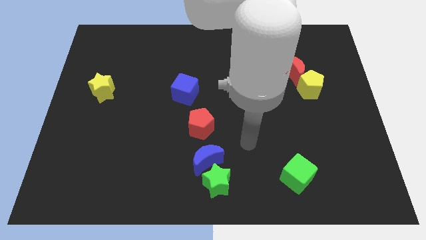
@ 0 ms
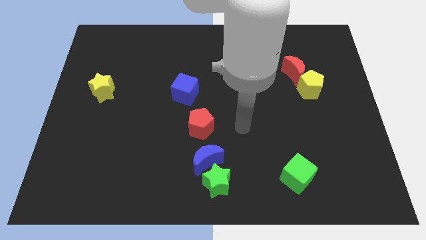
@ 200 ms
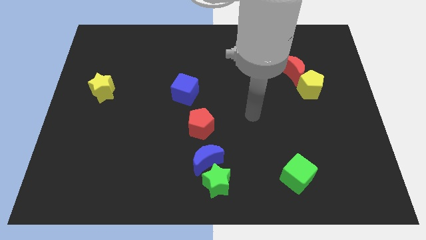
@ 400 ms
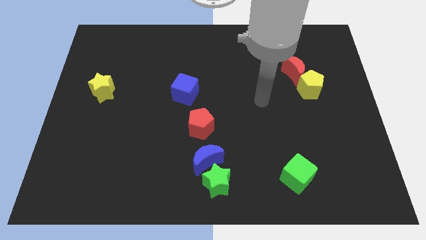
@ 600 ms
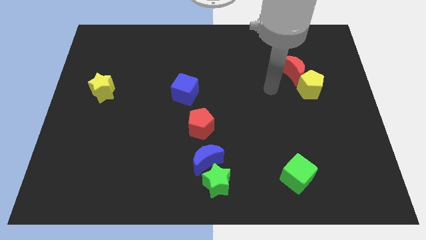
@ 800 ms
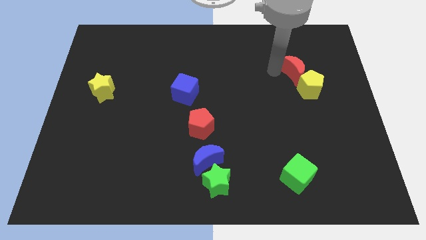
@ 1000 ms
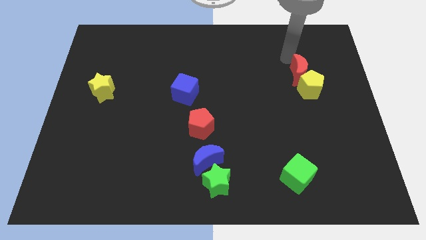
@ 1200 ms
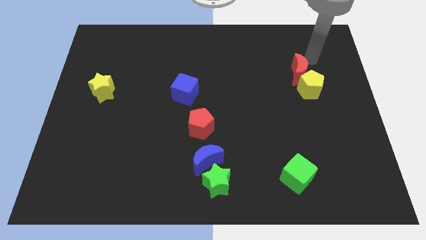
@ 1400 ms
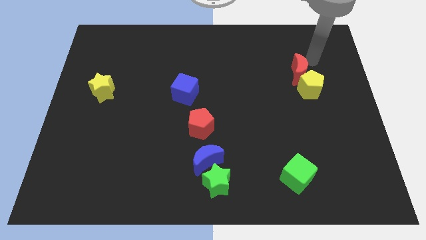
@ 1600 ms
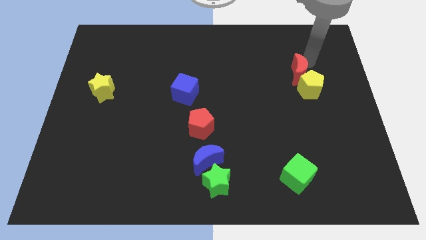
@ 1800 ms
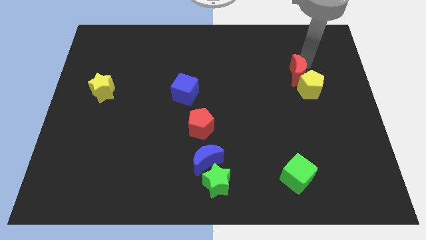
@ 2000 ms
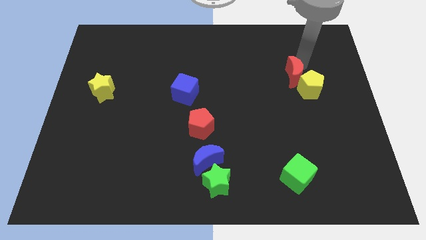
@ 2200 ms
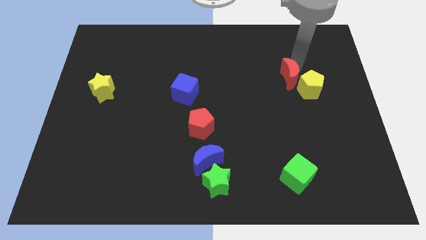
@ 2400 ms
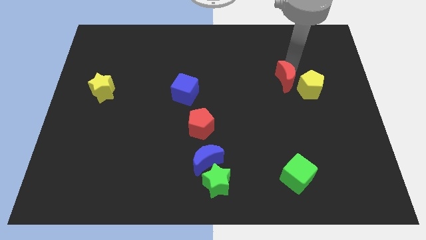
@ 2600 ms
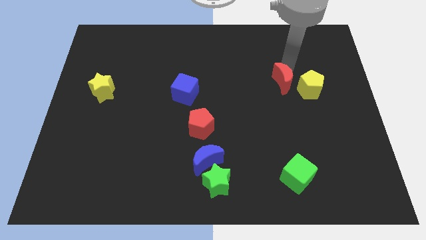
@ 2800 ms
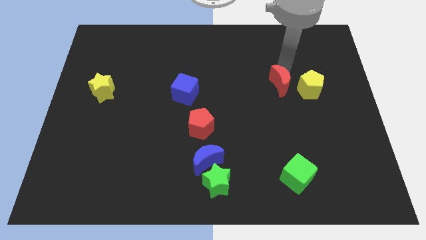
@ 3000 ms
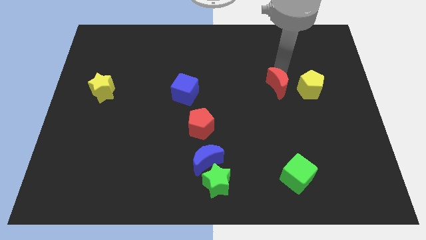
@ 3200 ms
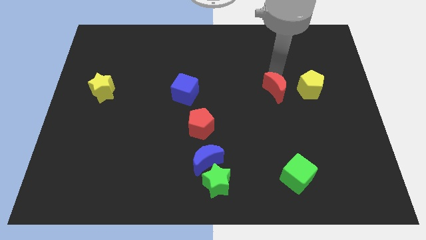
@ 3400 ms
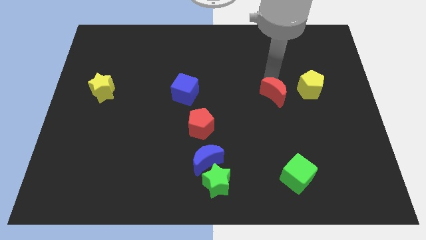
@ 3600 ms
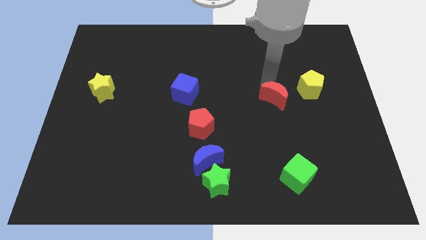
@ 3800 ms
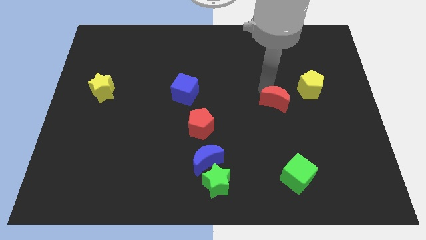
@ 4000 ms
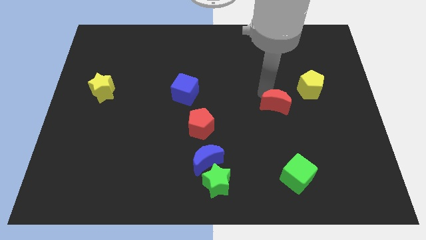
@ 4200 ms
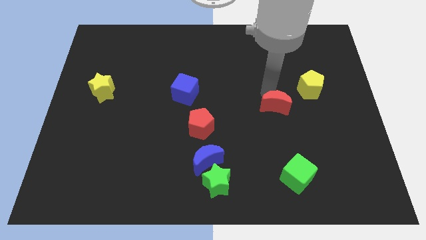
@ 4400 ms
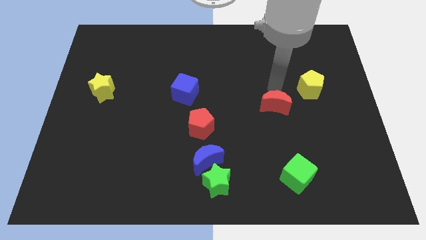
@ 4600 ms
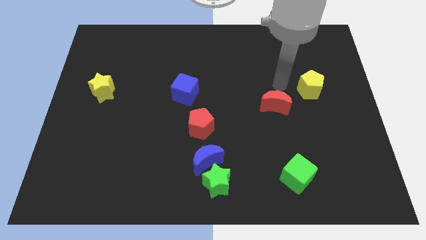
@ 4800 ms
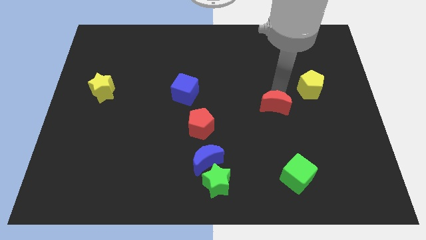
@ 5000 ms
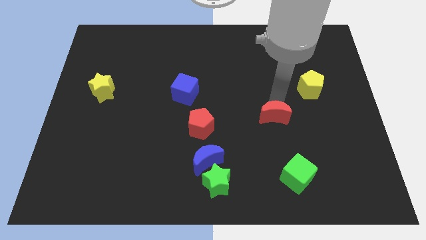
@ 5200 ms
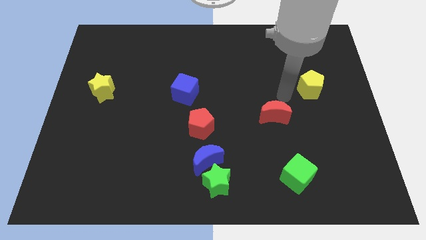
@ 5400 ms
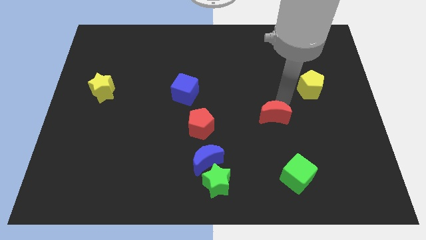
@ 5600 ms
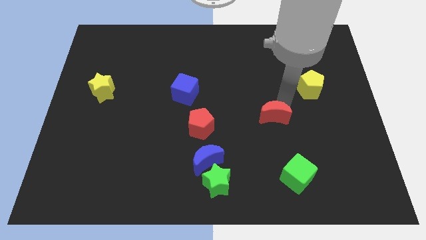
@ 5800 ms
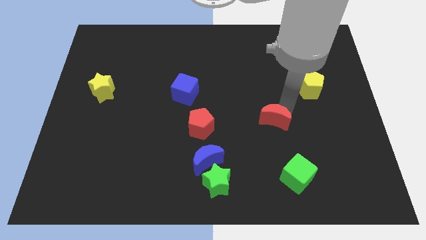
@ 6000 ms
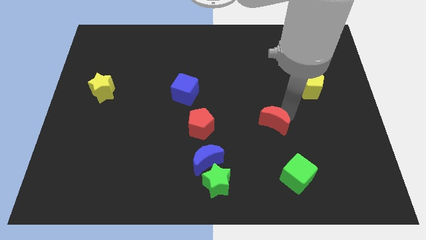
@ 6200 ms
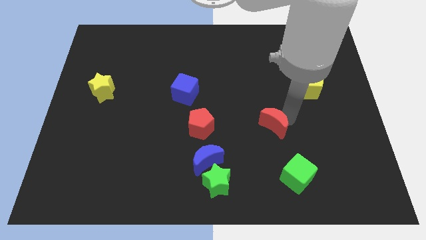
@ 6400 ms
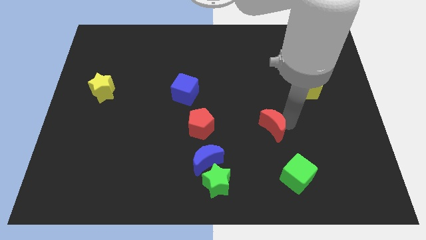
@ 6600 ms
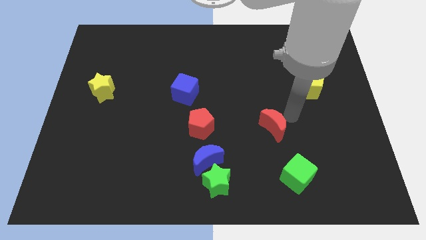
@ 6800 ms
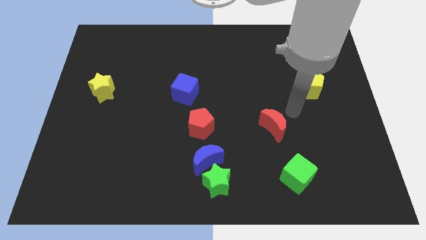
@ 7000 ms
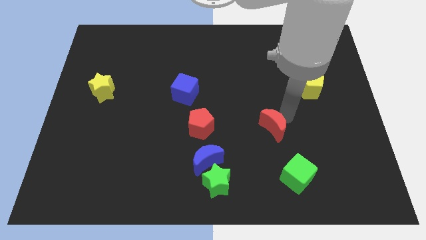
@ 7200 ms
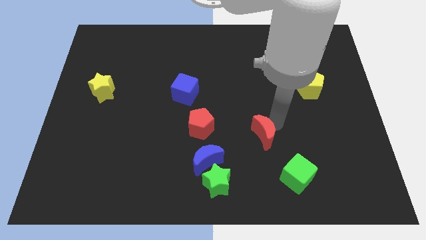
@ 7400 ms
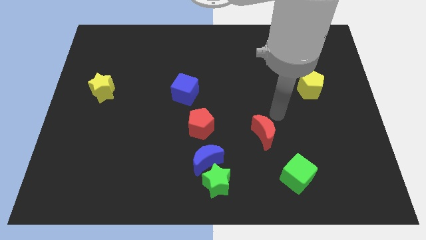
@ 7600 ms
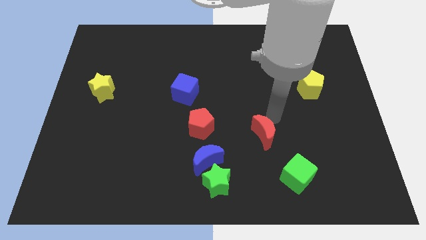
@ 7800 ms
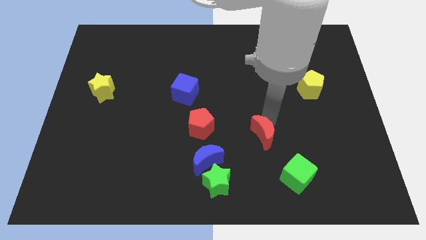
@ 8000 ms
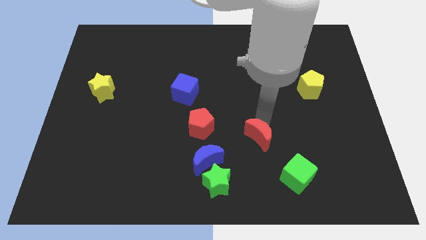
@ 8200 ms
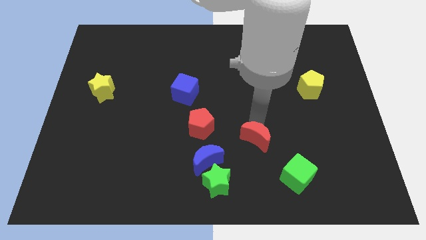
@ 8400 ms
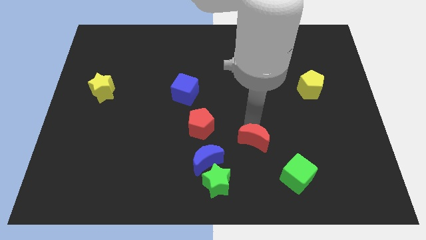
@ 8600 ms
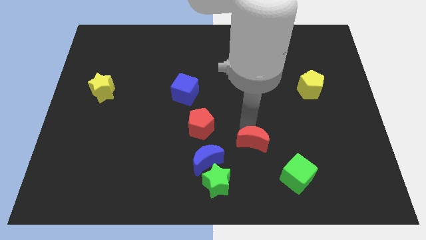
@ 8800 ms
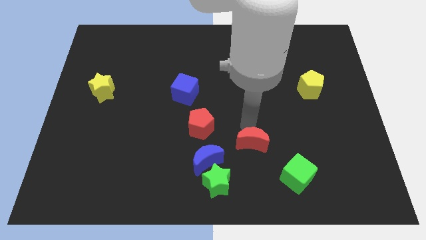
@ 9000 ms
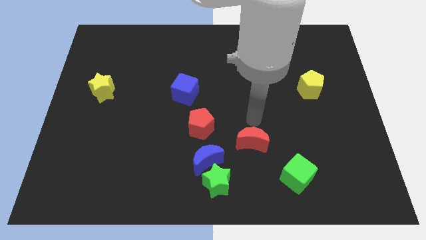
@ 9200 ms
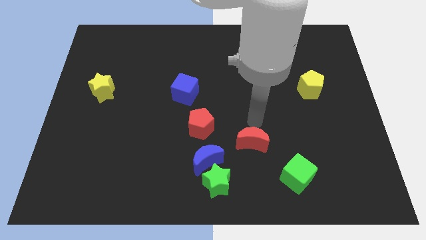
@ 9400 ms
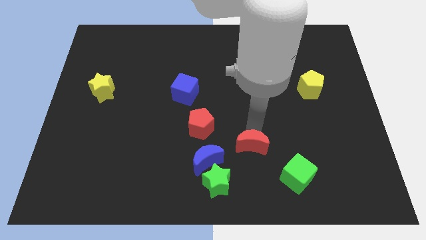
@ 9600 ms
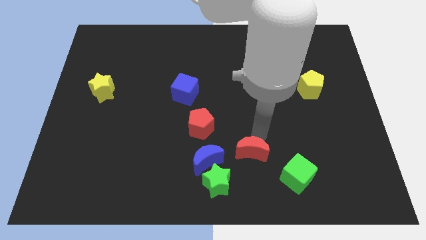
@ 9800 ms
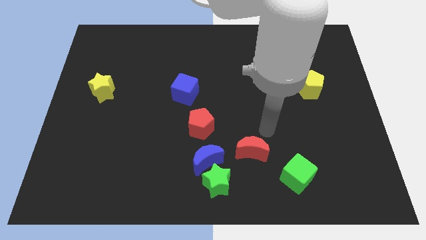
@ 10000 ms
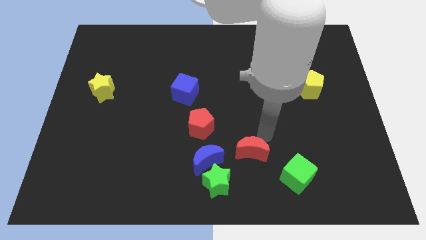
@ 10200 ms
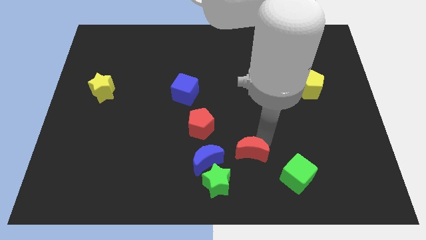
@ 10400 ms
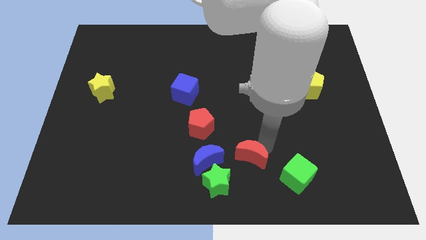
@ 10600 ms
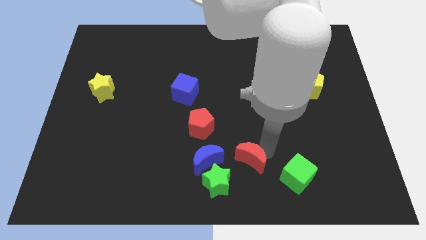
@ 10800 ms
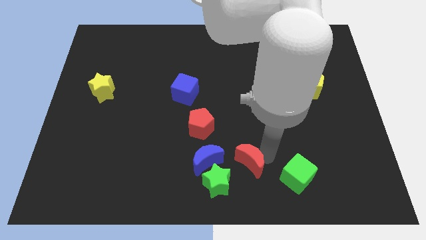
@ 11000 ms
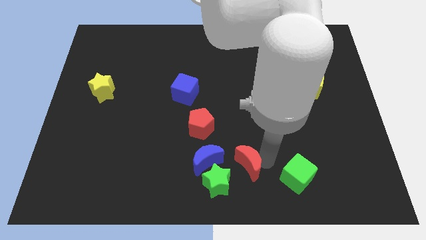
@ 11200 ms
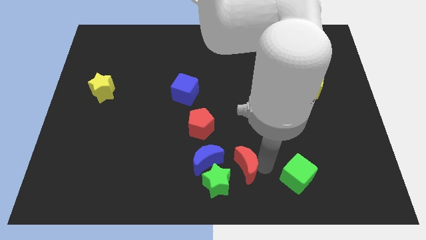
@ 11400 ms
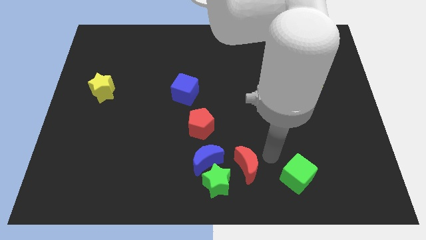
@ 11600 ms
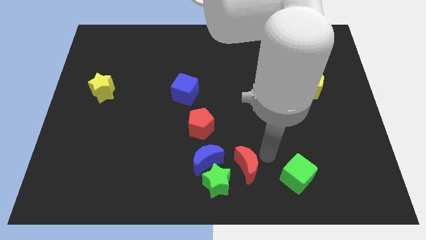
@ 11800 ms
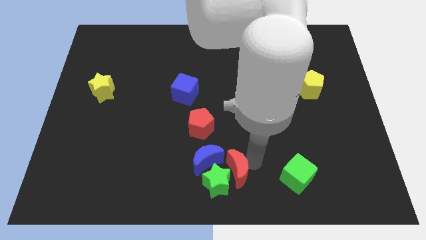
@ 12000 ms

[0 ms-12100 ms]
slide the red moon next to the green star

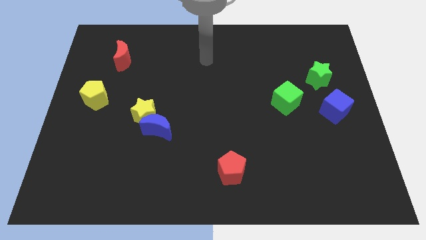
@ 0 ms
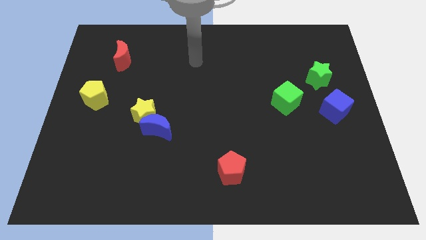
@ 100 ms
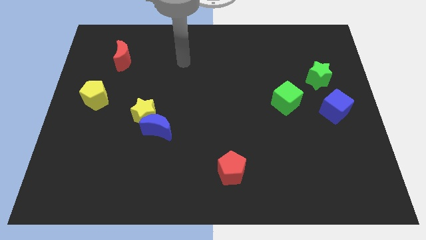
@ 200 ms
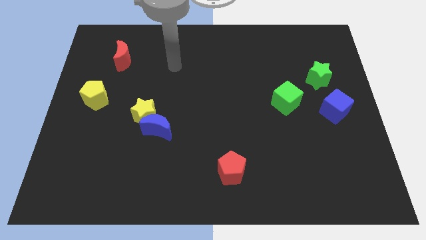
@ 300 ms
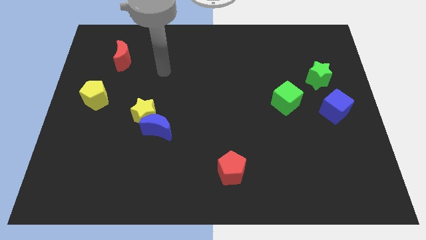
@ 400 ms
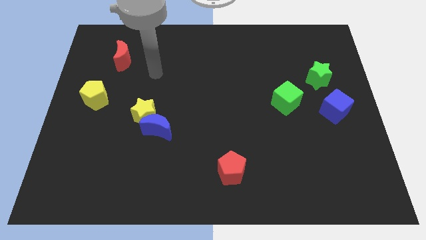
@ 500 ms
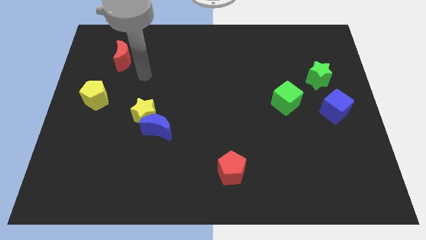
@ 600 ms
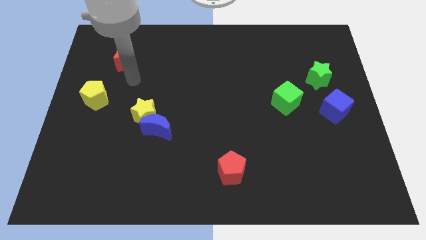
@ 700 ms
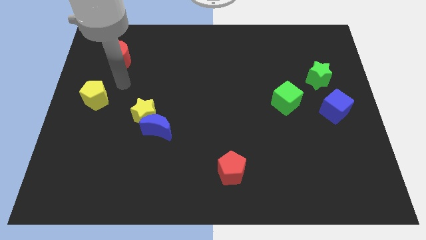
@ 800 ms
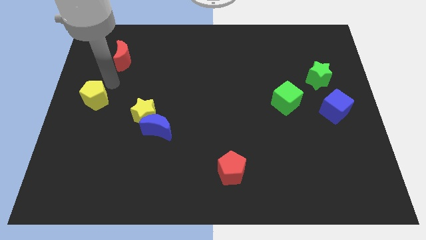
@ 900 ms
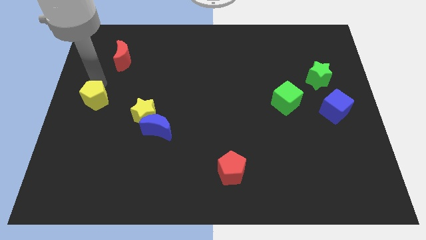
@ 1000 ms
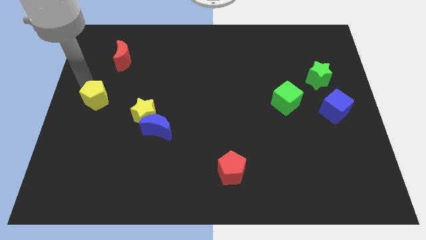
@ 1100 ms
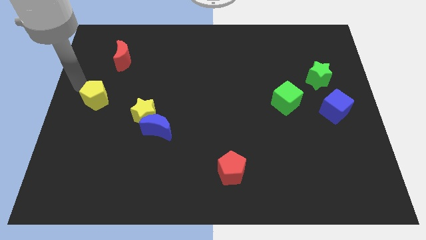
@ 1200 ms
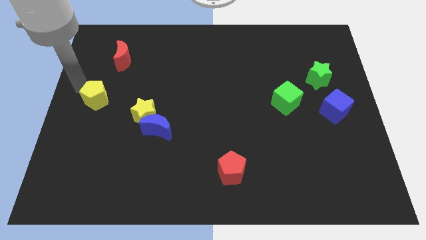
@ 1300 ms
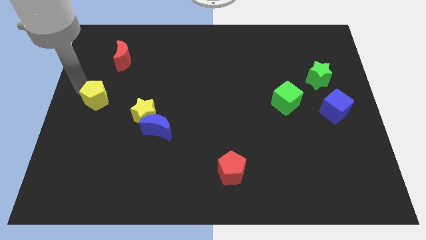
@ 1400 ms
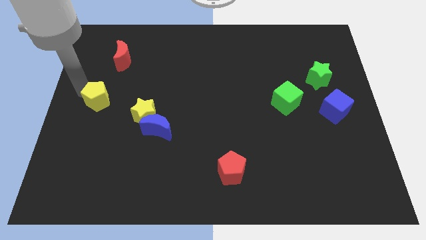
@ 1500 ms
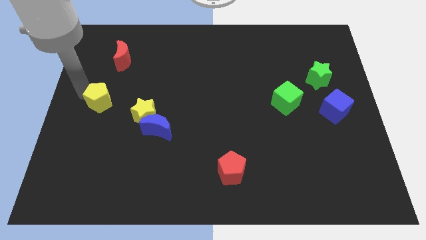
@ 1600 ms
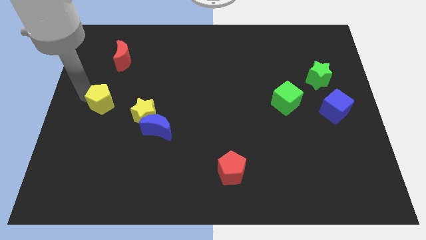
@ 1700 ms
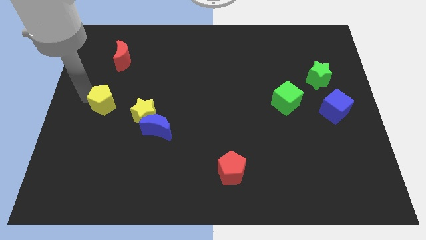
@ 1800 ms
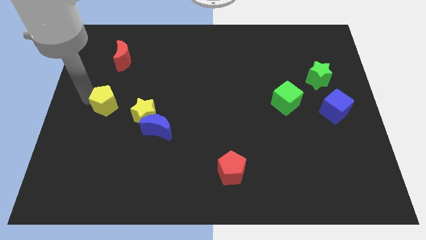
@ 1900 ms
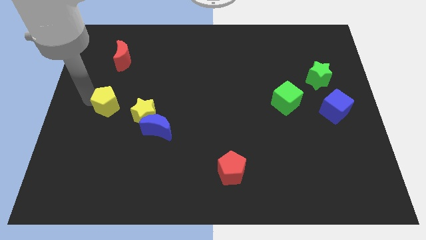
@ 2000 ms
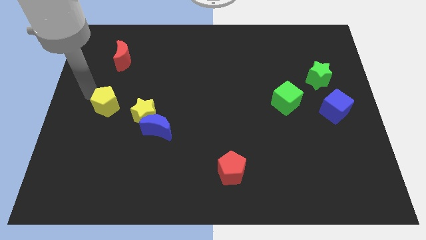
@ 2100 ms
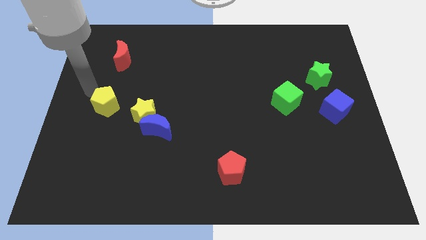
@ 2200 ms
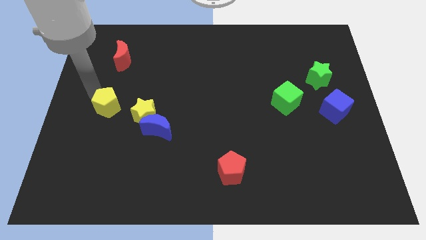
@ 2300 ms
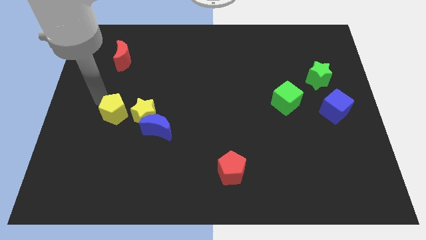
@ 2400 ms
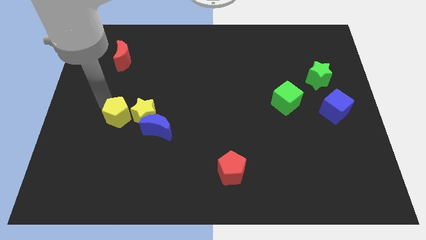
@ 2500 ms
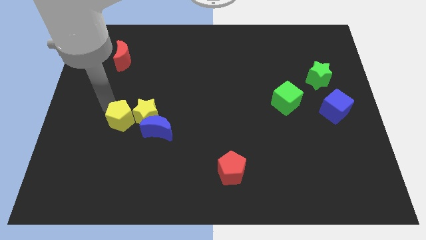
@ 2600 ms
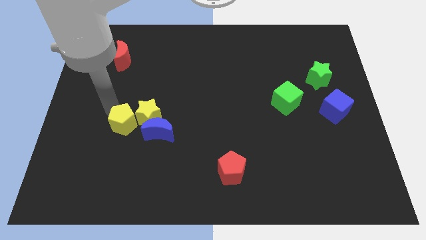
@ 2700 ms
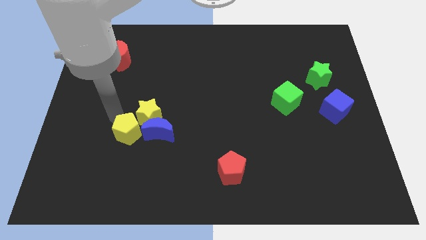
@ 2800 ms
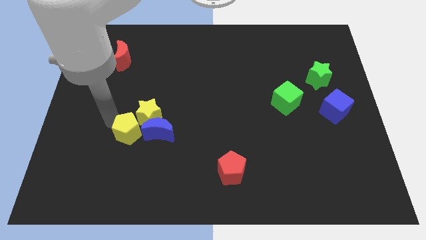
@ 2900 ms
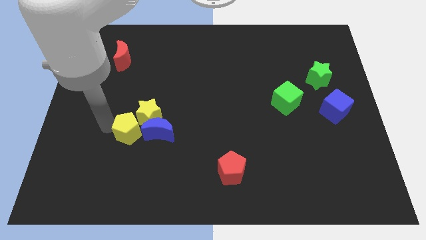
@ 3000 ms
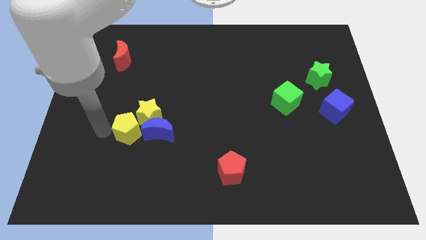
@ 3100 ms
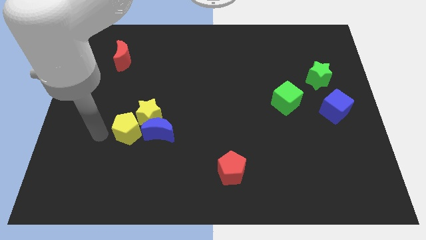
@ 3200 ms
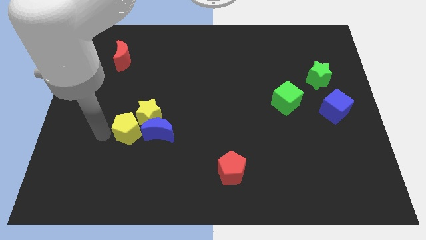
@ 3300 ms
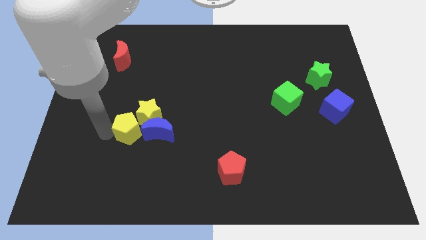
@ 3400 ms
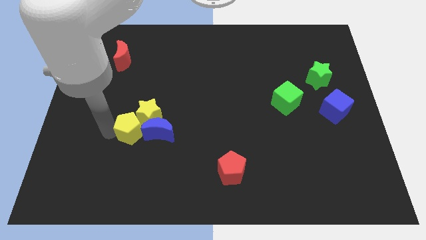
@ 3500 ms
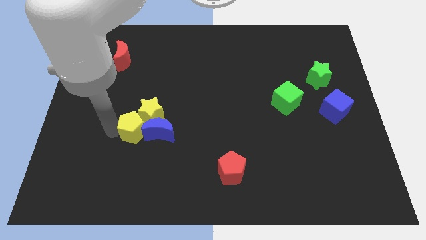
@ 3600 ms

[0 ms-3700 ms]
slide the yellow pentagon to the blue moon
